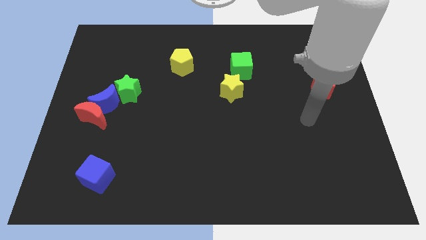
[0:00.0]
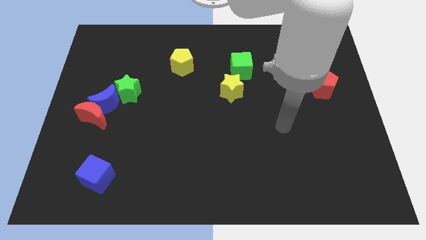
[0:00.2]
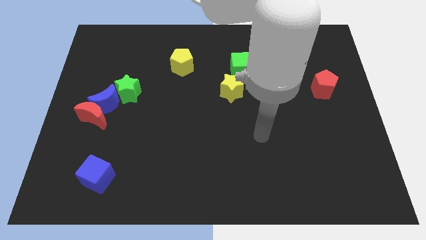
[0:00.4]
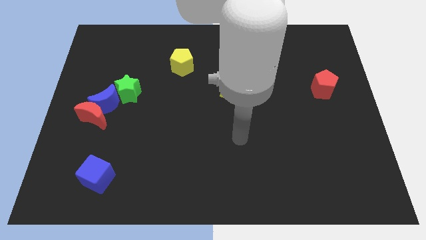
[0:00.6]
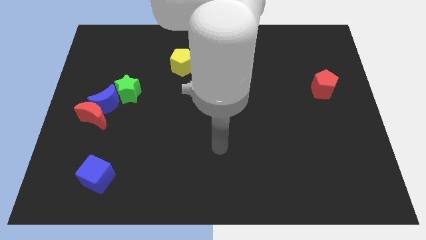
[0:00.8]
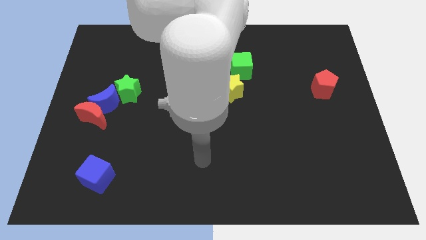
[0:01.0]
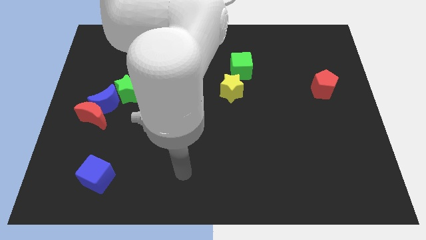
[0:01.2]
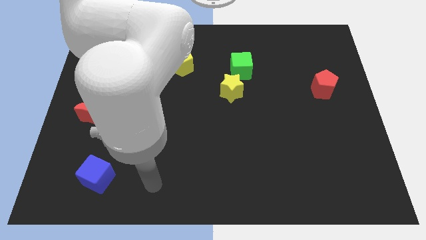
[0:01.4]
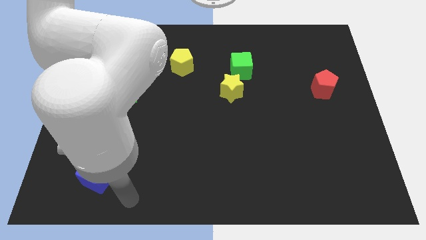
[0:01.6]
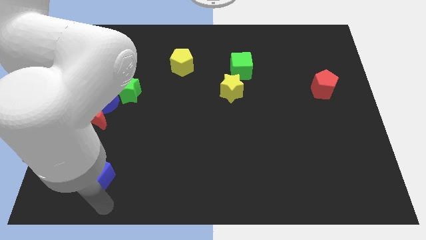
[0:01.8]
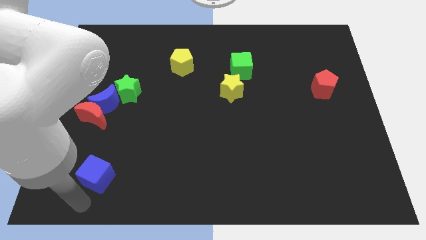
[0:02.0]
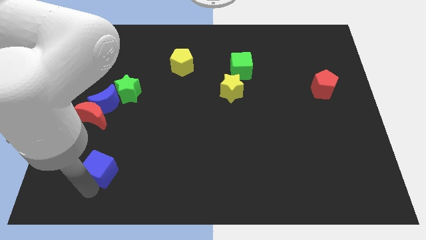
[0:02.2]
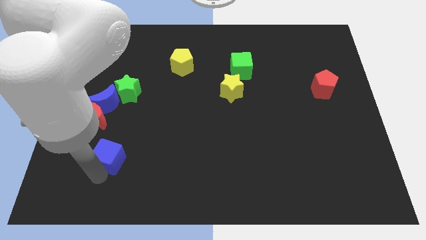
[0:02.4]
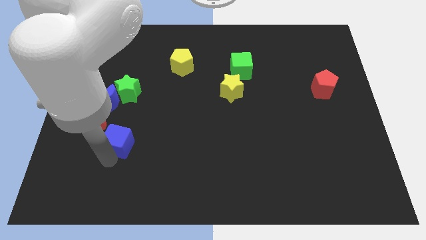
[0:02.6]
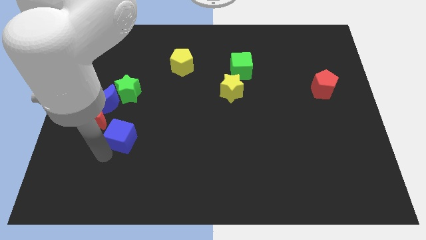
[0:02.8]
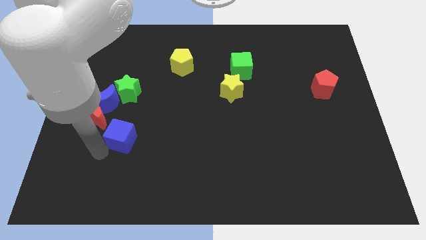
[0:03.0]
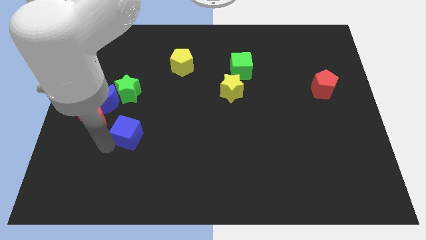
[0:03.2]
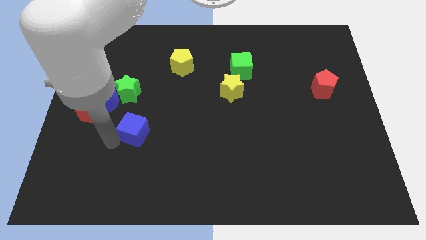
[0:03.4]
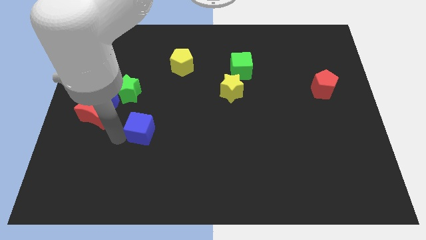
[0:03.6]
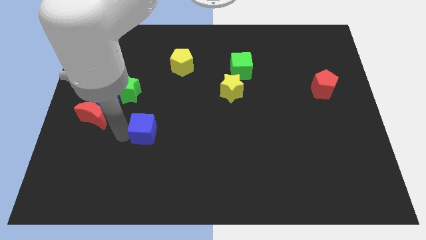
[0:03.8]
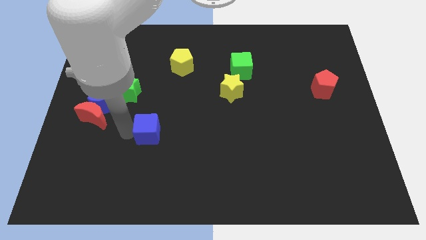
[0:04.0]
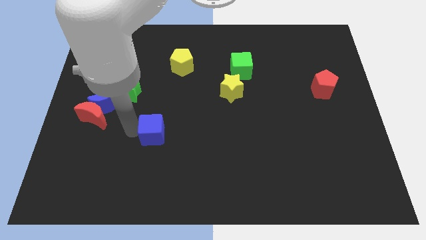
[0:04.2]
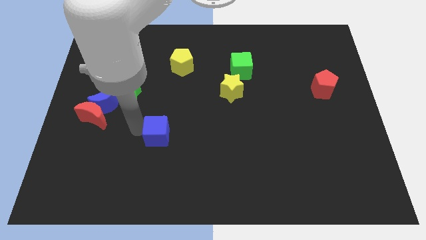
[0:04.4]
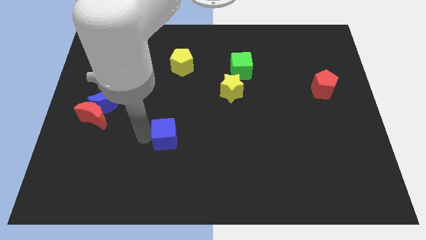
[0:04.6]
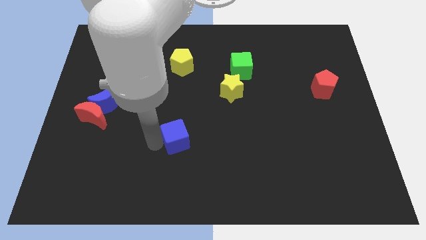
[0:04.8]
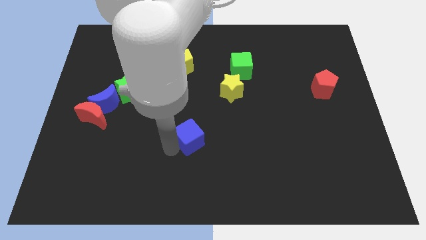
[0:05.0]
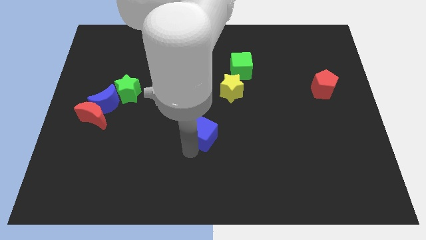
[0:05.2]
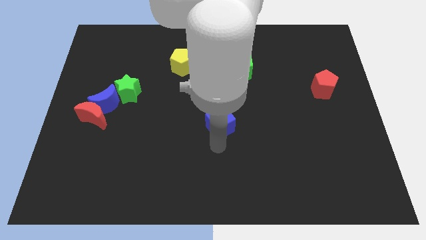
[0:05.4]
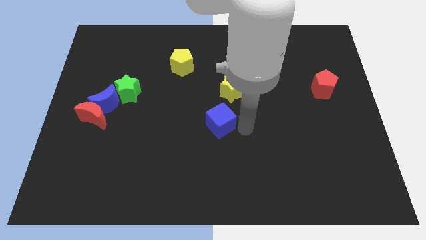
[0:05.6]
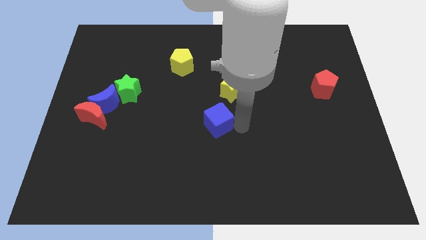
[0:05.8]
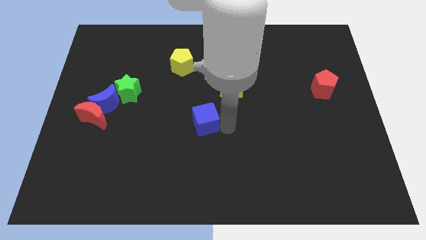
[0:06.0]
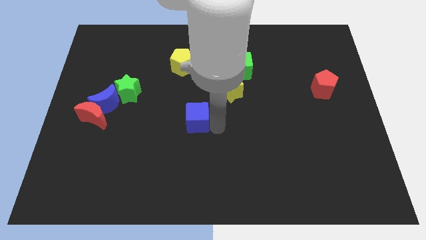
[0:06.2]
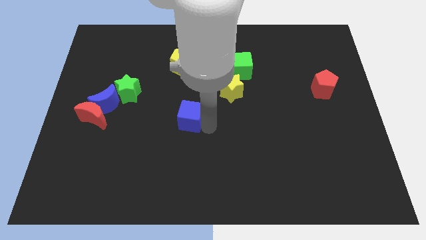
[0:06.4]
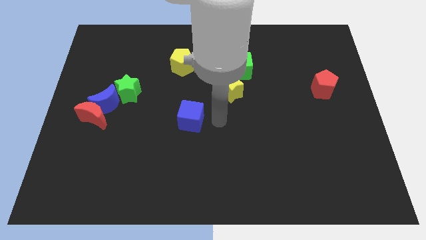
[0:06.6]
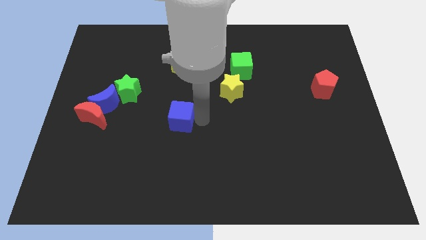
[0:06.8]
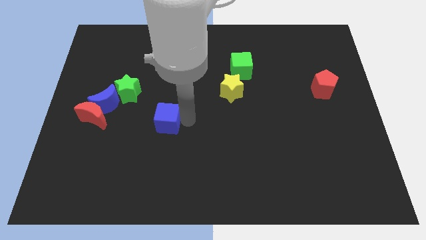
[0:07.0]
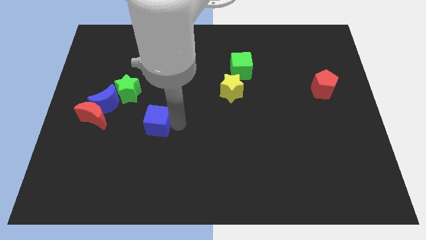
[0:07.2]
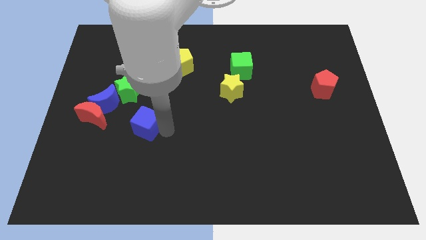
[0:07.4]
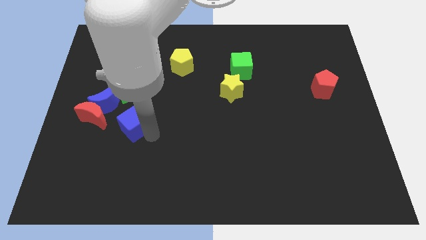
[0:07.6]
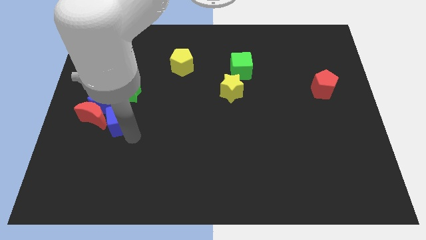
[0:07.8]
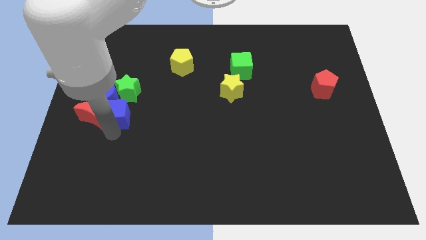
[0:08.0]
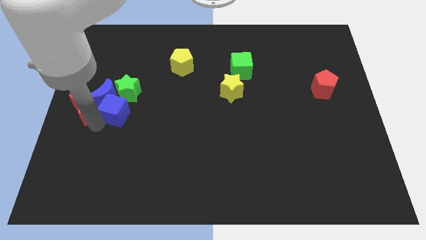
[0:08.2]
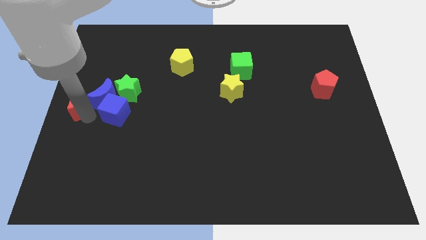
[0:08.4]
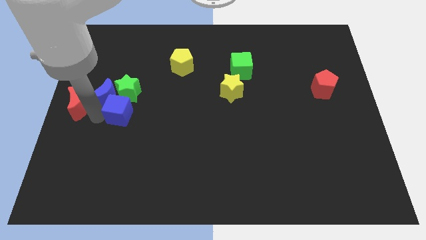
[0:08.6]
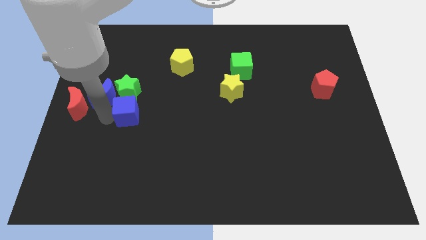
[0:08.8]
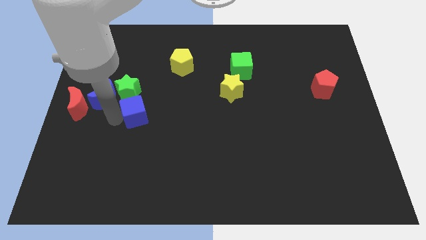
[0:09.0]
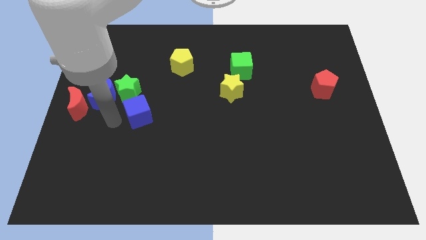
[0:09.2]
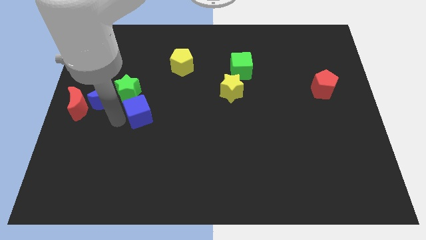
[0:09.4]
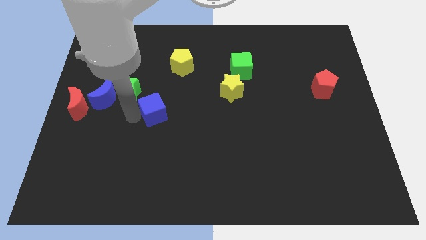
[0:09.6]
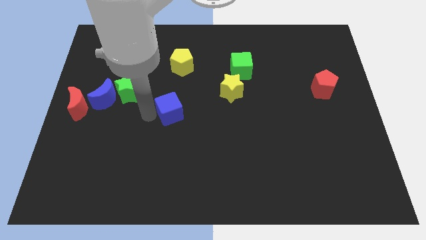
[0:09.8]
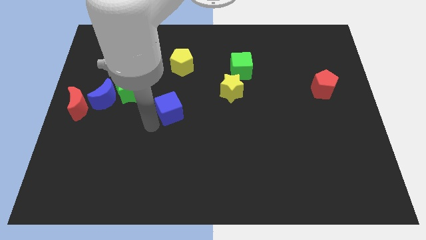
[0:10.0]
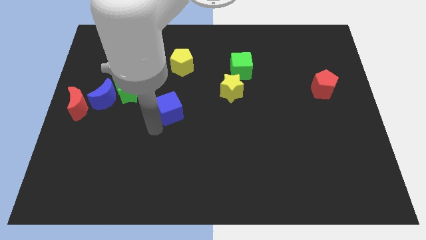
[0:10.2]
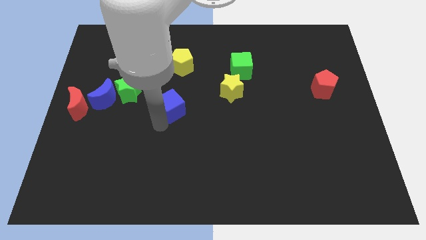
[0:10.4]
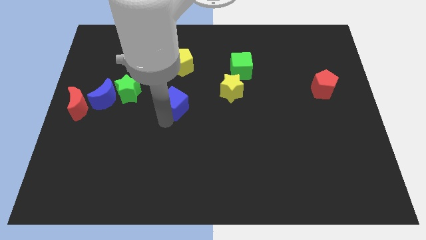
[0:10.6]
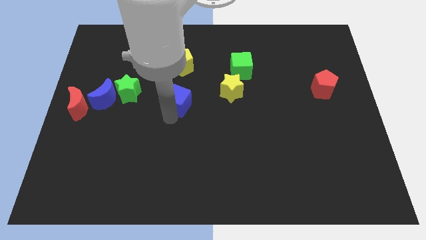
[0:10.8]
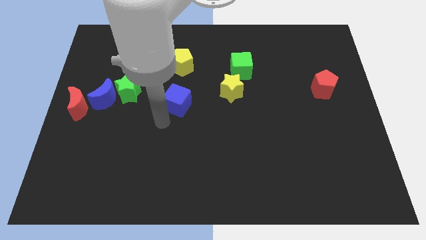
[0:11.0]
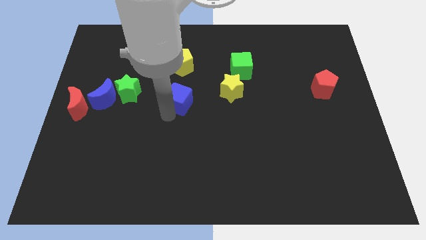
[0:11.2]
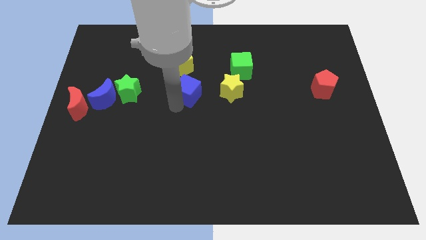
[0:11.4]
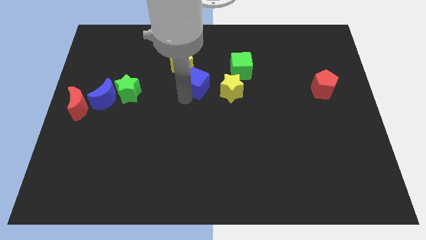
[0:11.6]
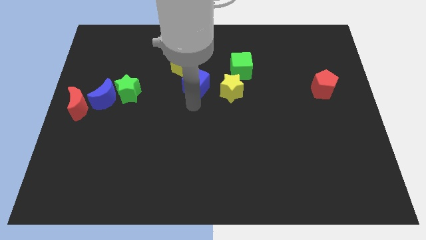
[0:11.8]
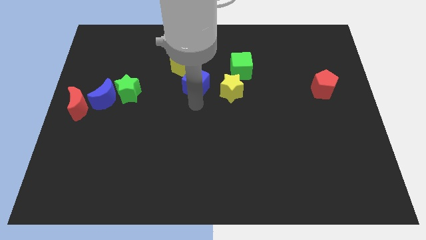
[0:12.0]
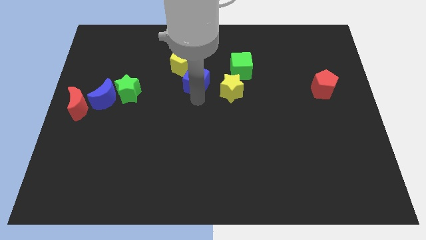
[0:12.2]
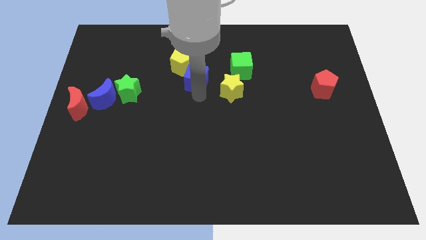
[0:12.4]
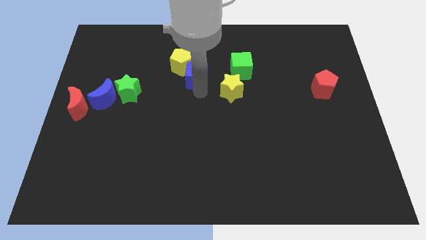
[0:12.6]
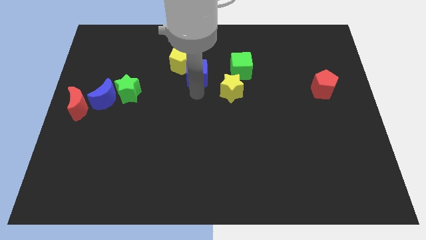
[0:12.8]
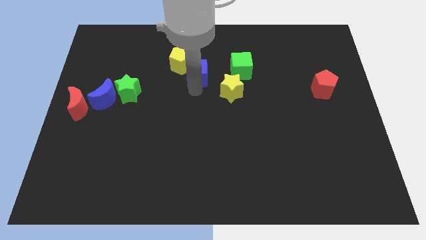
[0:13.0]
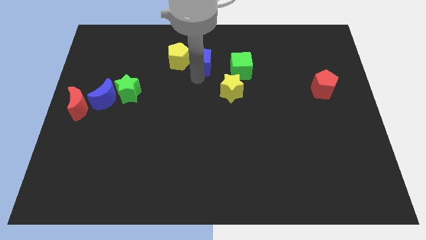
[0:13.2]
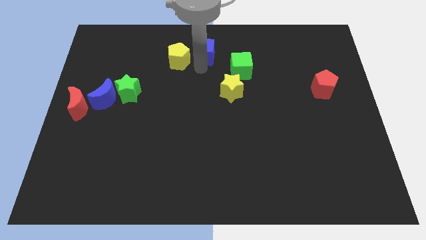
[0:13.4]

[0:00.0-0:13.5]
put the blue cube to the top

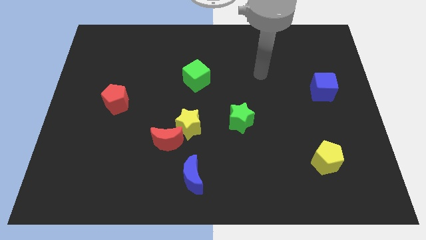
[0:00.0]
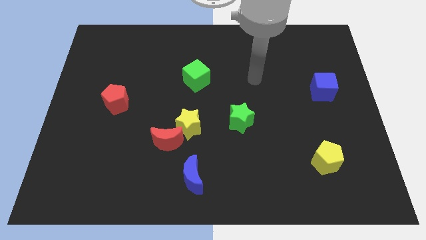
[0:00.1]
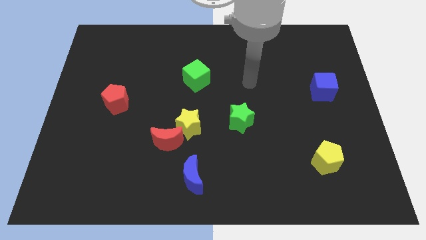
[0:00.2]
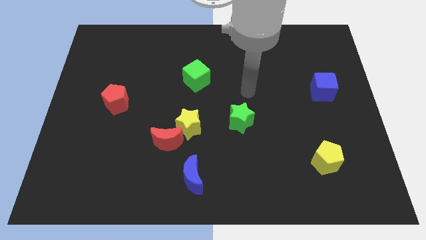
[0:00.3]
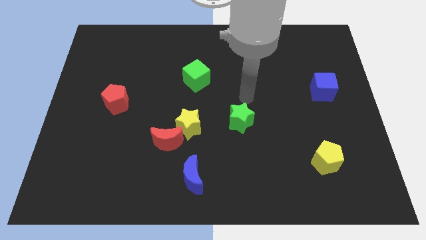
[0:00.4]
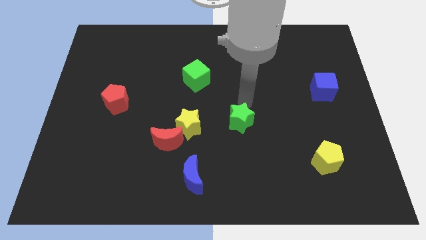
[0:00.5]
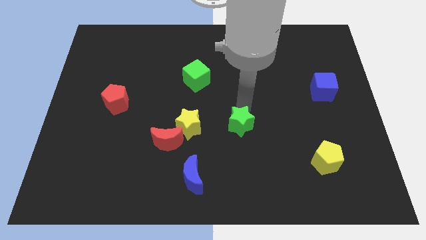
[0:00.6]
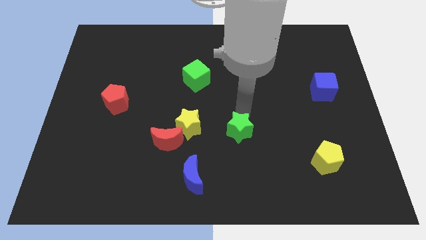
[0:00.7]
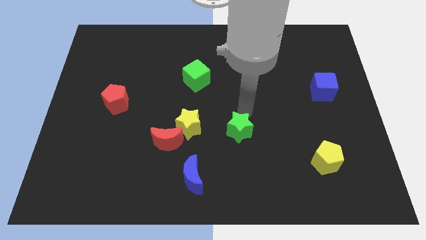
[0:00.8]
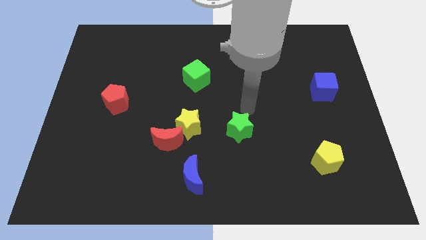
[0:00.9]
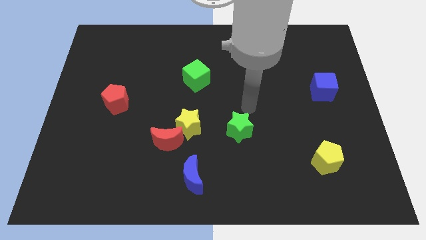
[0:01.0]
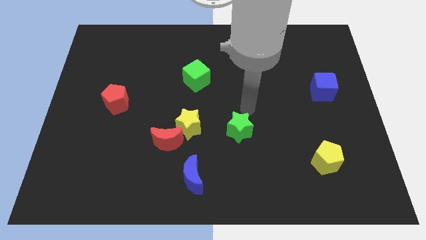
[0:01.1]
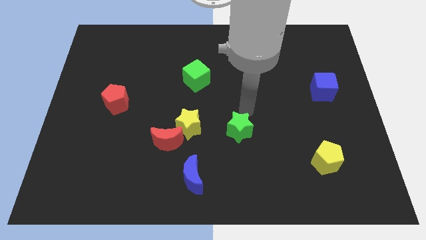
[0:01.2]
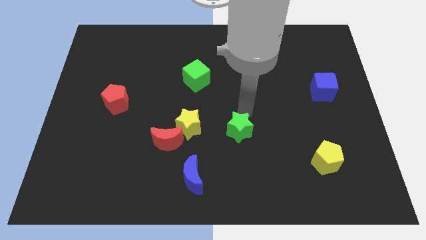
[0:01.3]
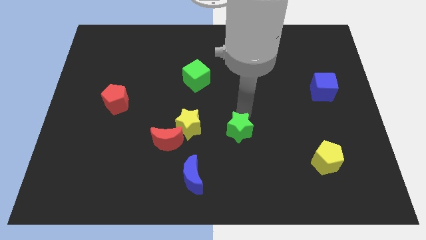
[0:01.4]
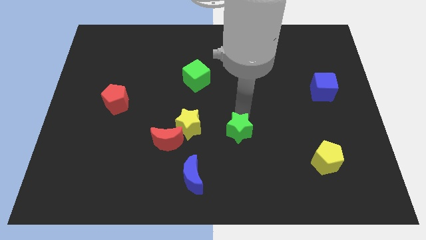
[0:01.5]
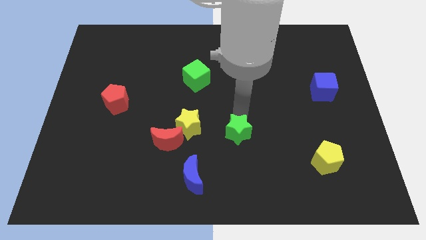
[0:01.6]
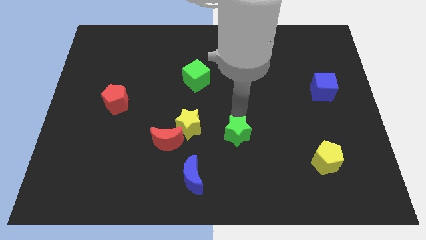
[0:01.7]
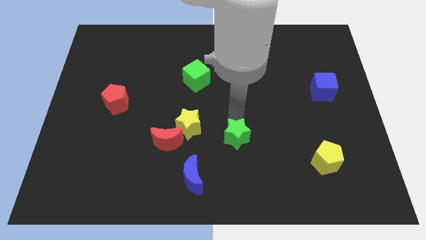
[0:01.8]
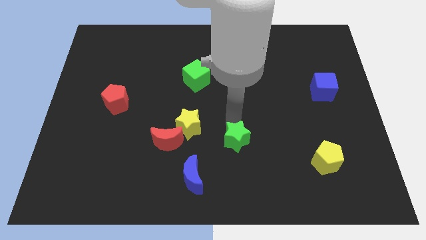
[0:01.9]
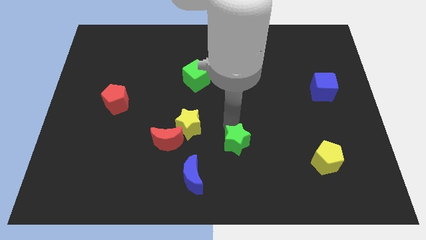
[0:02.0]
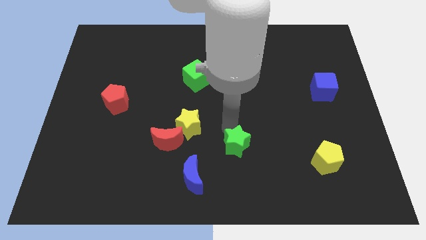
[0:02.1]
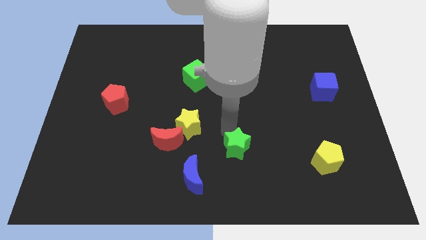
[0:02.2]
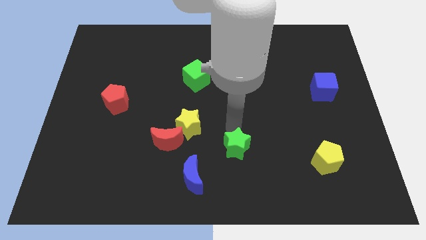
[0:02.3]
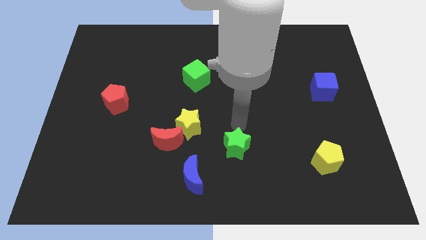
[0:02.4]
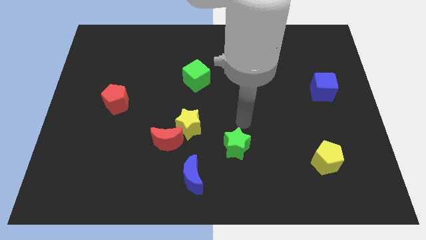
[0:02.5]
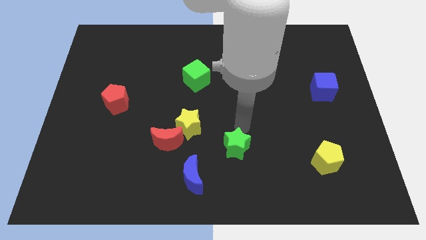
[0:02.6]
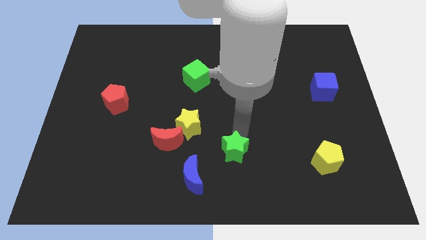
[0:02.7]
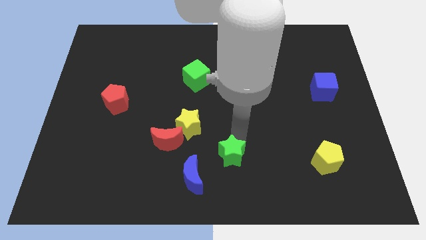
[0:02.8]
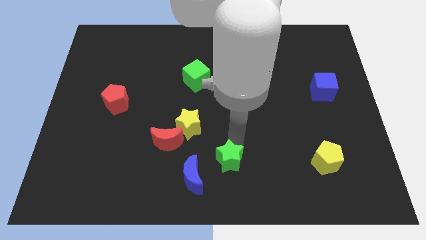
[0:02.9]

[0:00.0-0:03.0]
push the green star to the bottom side
